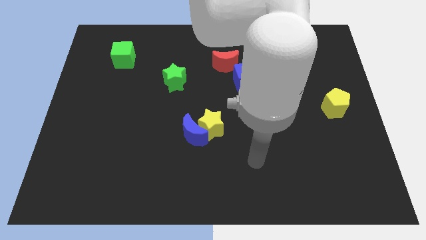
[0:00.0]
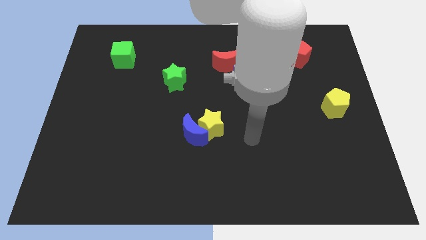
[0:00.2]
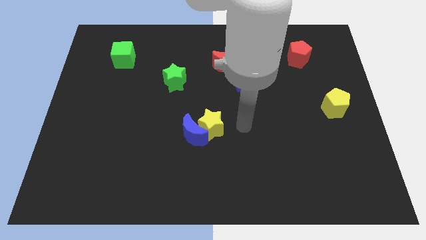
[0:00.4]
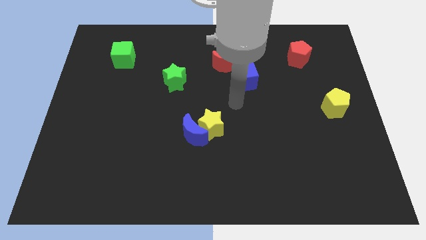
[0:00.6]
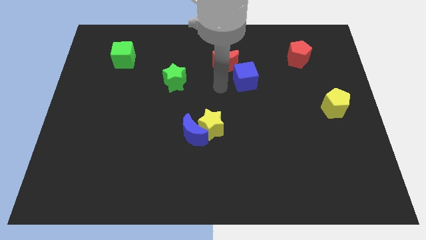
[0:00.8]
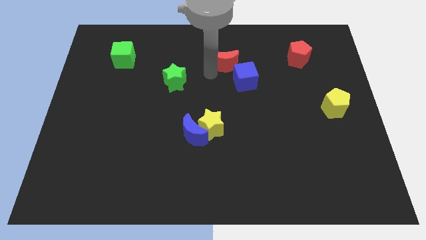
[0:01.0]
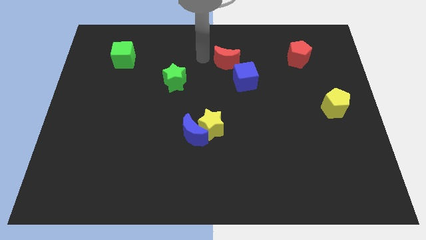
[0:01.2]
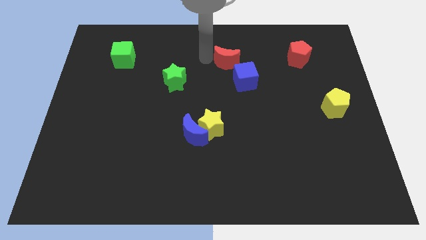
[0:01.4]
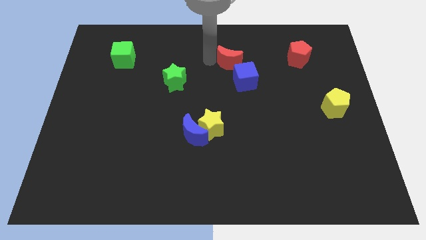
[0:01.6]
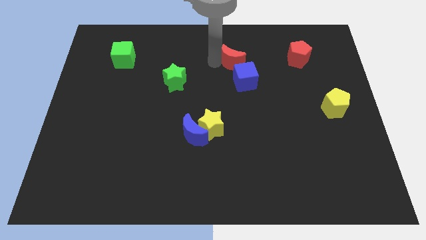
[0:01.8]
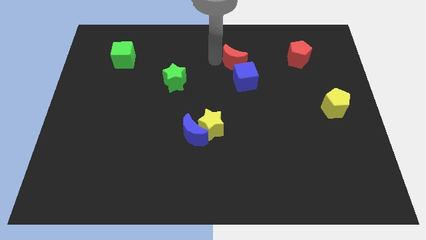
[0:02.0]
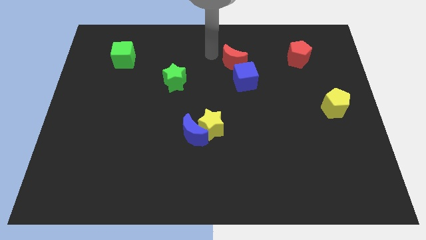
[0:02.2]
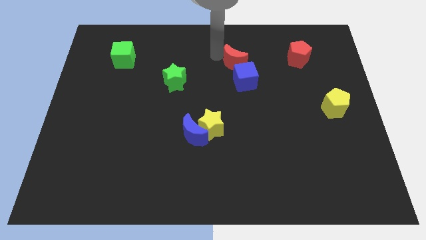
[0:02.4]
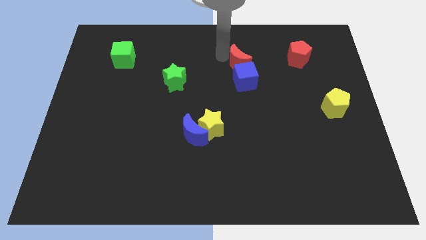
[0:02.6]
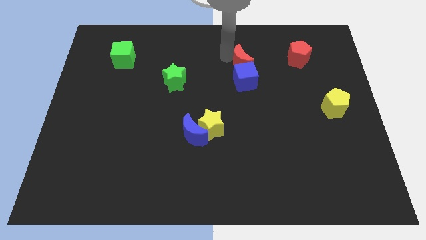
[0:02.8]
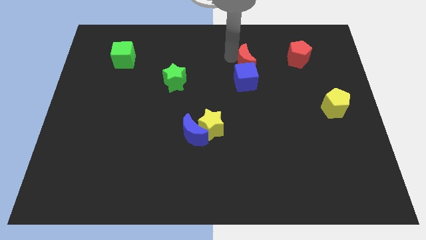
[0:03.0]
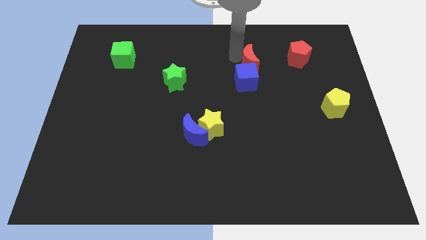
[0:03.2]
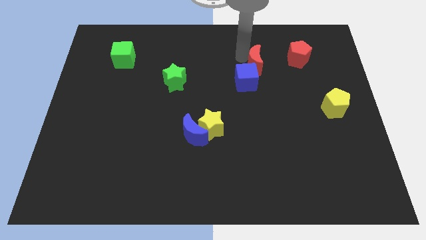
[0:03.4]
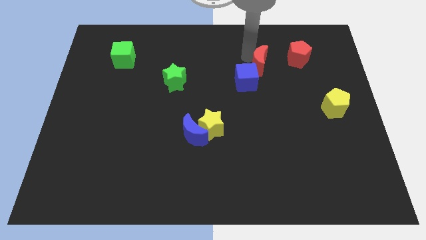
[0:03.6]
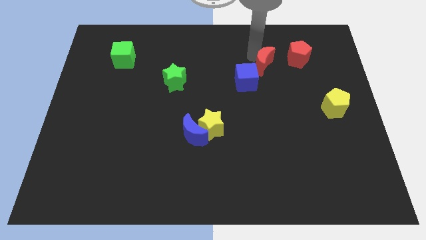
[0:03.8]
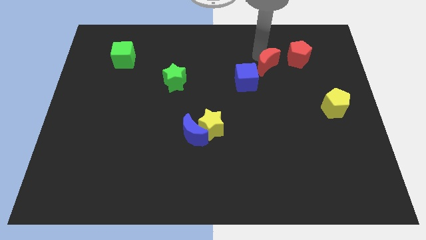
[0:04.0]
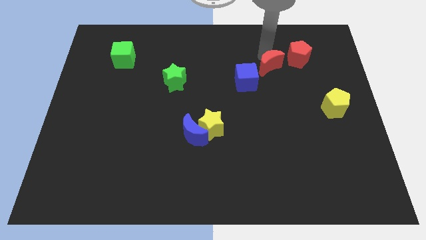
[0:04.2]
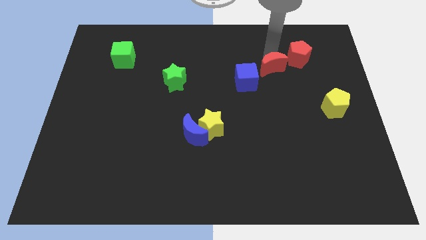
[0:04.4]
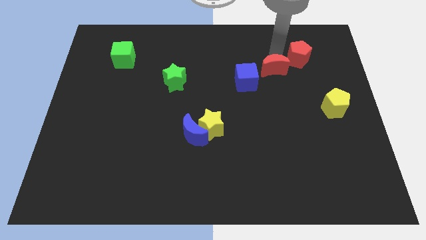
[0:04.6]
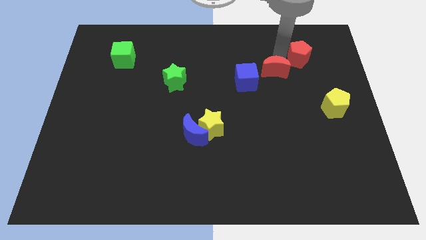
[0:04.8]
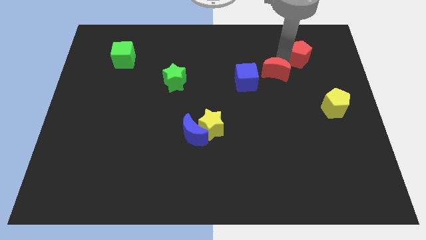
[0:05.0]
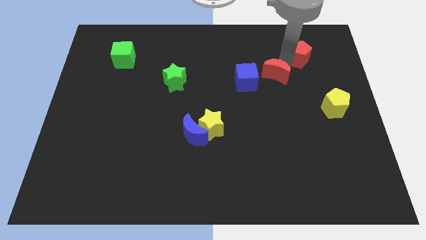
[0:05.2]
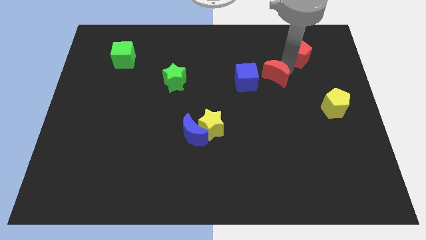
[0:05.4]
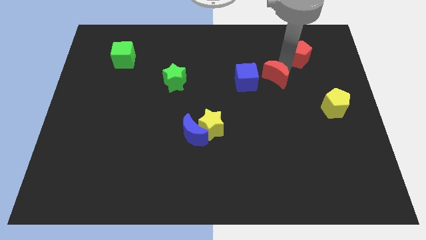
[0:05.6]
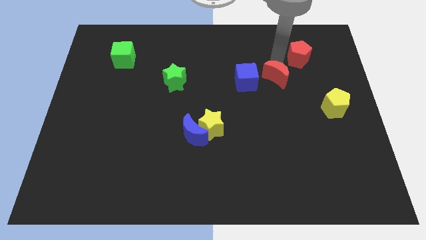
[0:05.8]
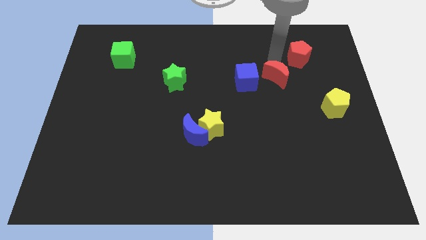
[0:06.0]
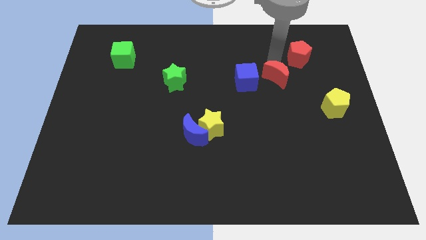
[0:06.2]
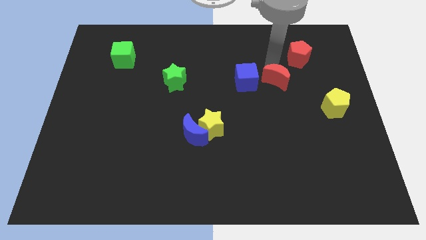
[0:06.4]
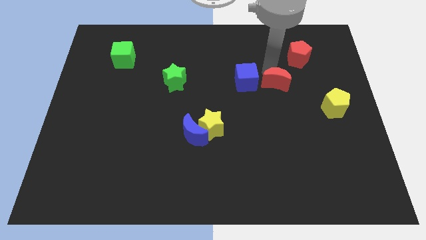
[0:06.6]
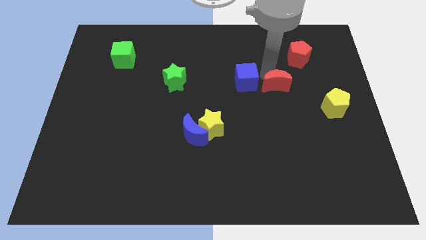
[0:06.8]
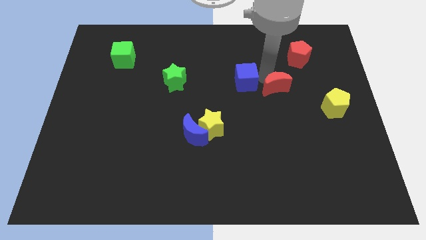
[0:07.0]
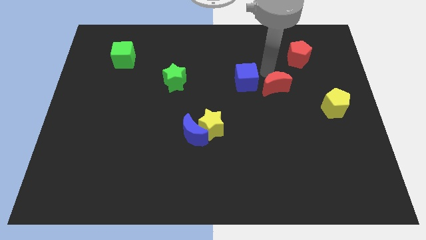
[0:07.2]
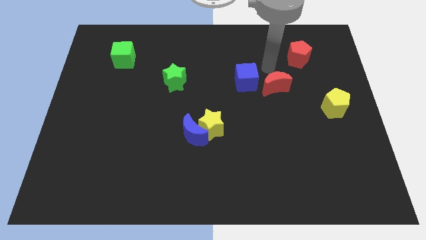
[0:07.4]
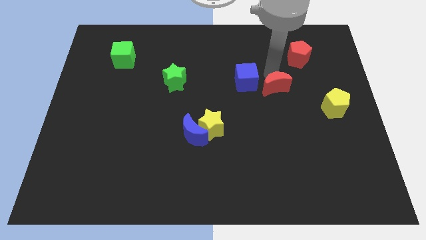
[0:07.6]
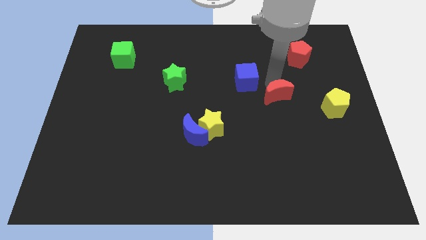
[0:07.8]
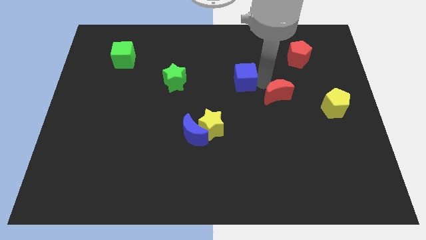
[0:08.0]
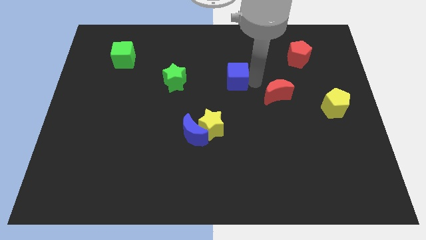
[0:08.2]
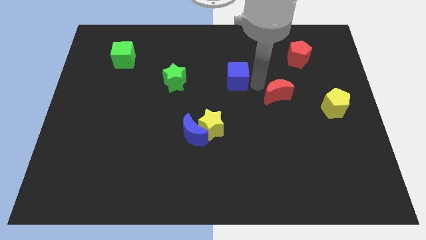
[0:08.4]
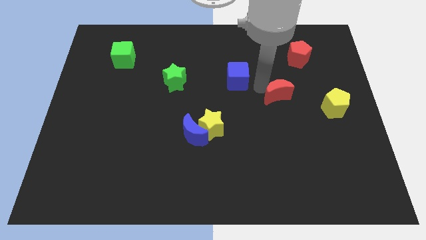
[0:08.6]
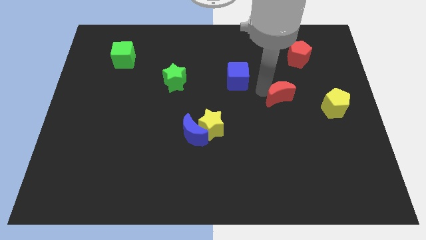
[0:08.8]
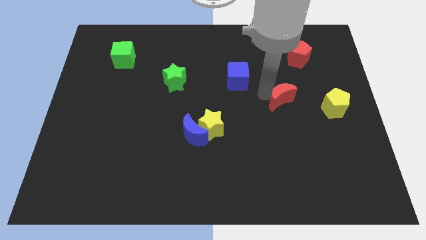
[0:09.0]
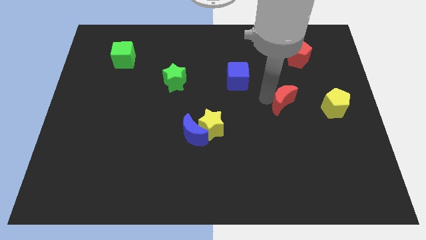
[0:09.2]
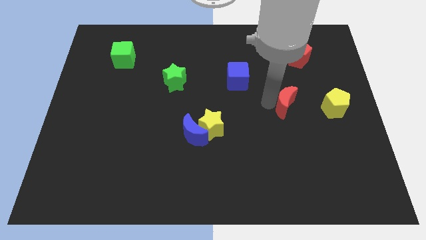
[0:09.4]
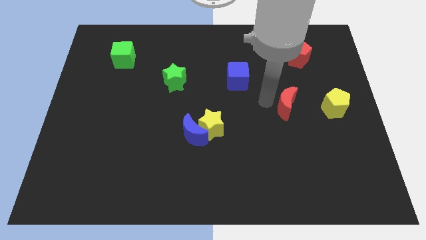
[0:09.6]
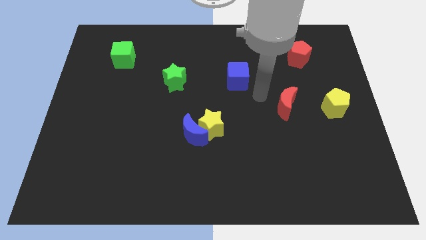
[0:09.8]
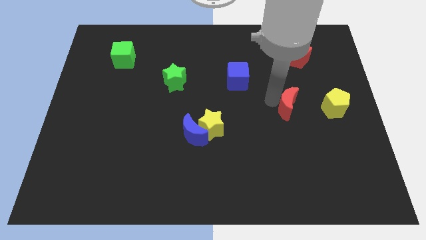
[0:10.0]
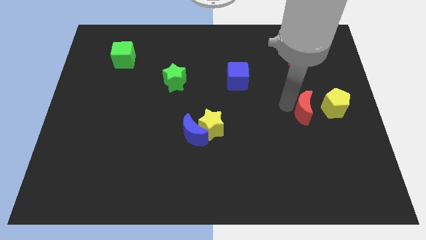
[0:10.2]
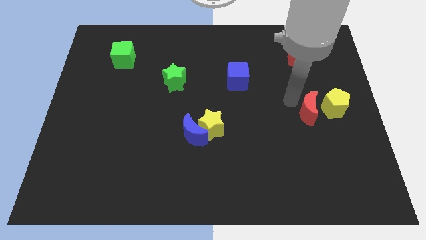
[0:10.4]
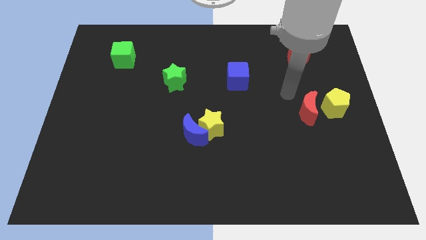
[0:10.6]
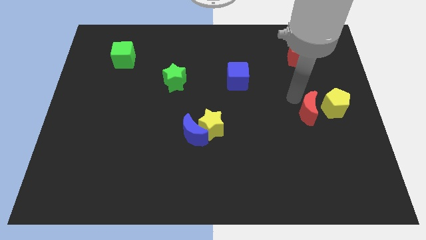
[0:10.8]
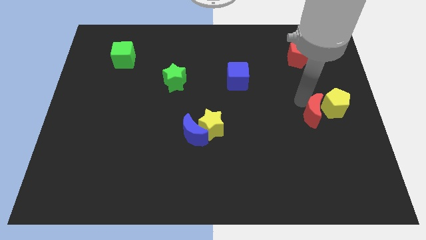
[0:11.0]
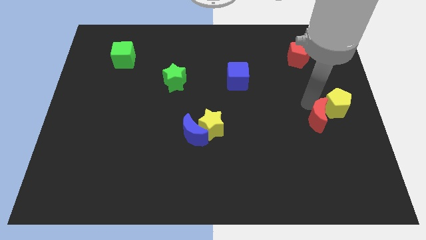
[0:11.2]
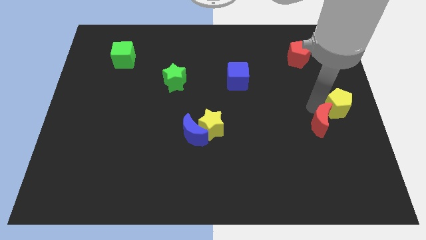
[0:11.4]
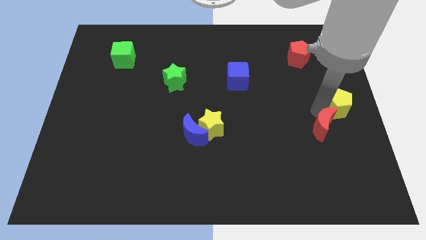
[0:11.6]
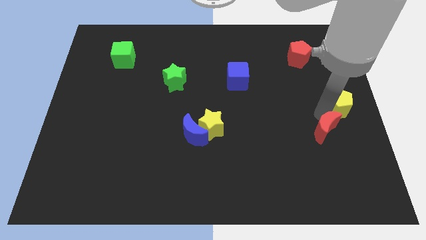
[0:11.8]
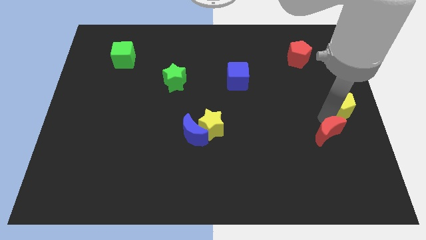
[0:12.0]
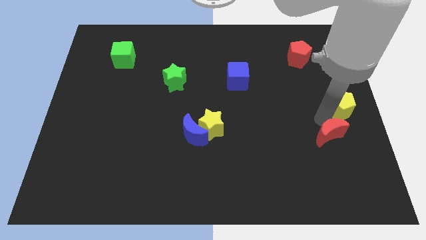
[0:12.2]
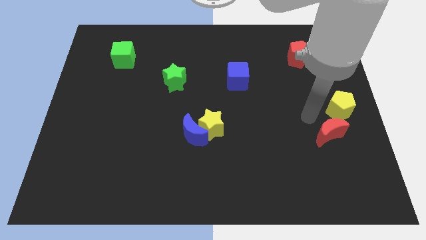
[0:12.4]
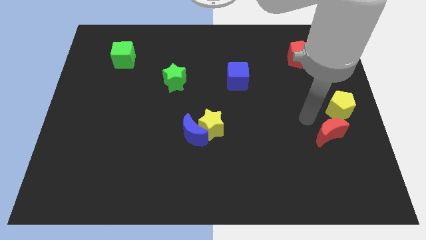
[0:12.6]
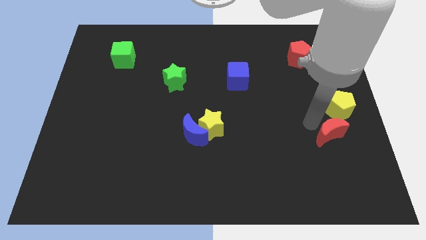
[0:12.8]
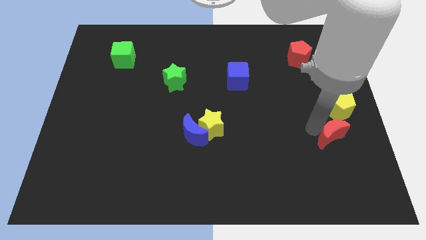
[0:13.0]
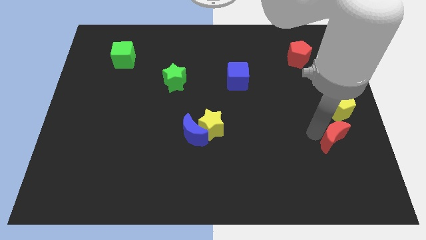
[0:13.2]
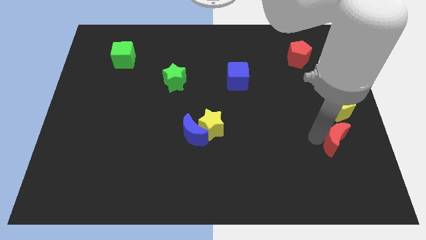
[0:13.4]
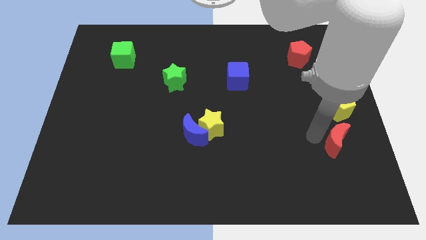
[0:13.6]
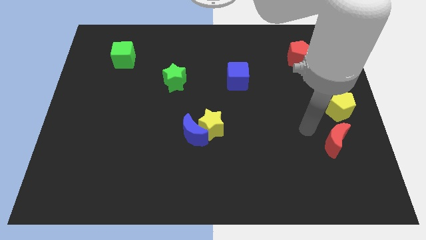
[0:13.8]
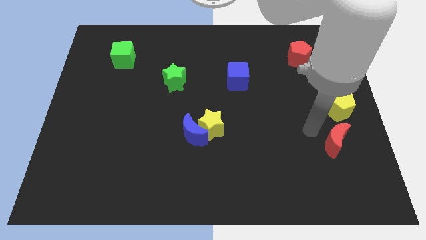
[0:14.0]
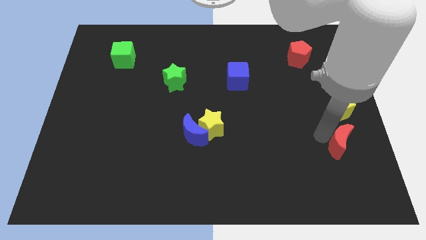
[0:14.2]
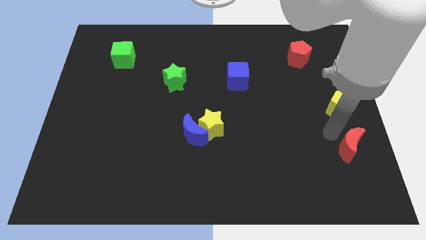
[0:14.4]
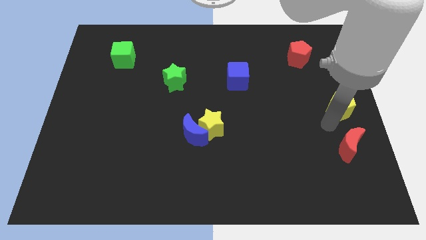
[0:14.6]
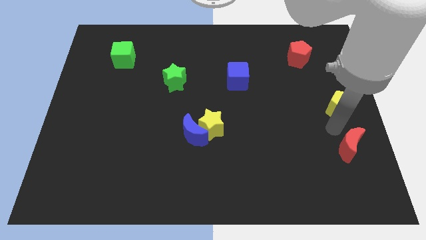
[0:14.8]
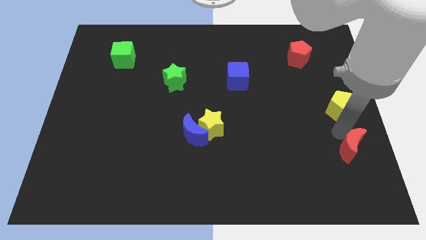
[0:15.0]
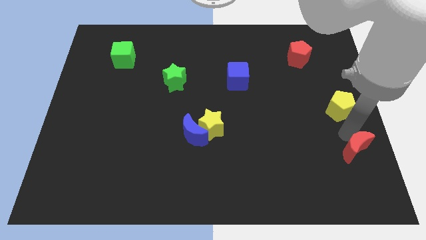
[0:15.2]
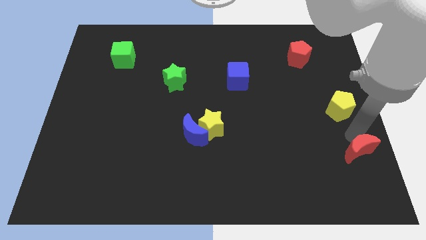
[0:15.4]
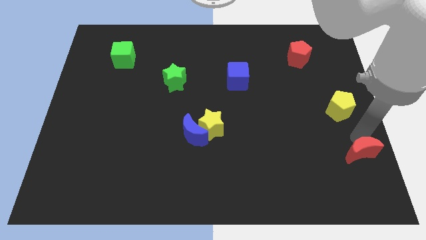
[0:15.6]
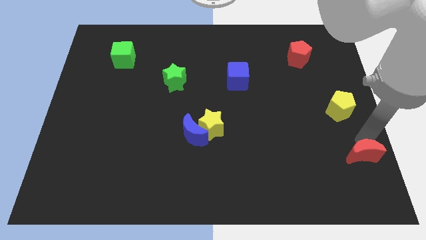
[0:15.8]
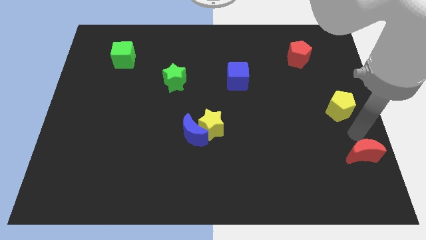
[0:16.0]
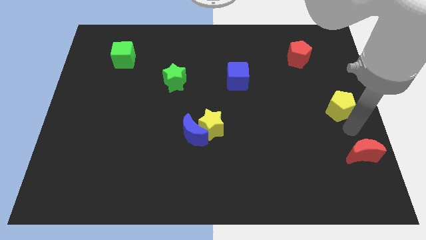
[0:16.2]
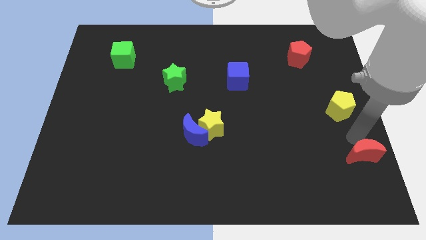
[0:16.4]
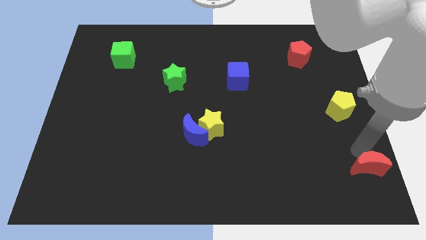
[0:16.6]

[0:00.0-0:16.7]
move the red moon to the bottom right corner
